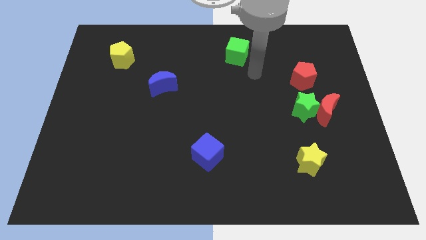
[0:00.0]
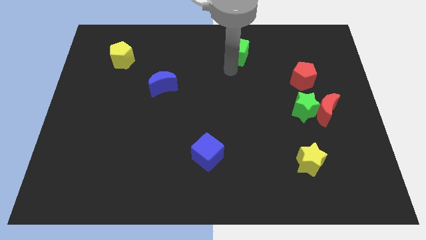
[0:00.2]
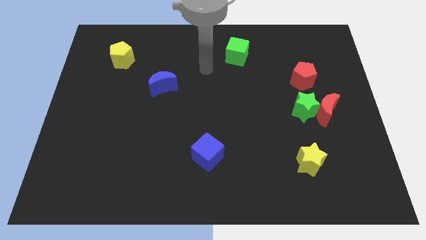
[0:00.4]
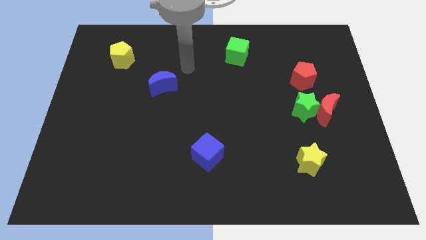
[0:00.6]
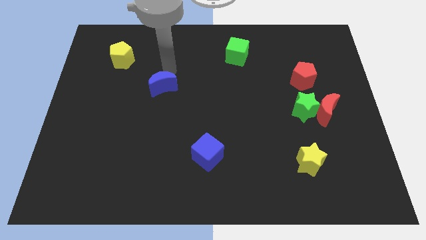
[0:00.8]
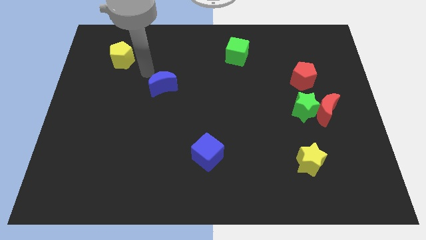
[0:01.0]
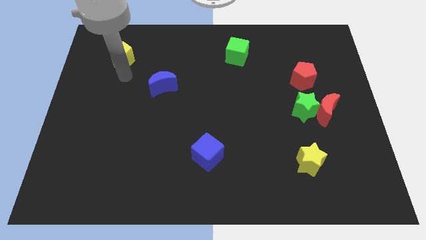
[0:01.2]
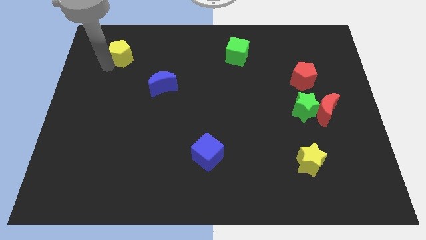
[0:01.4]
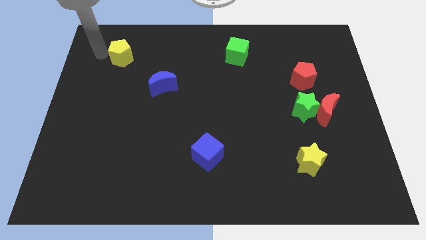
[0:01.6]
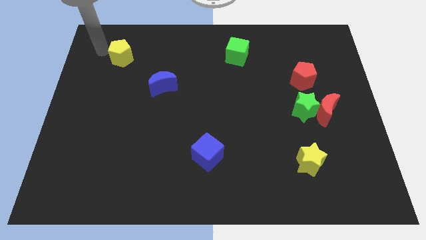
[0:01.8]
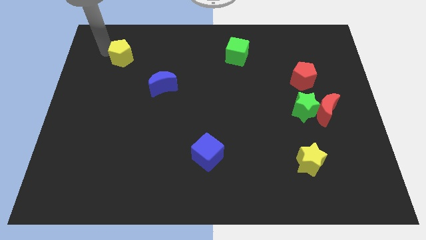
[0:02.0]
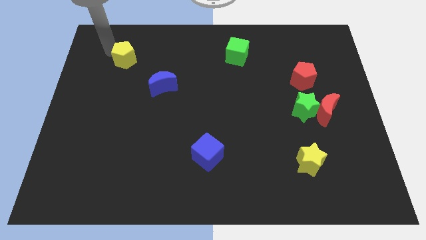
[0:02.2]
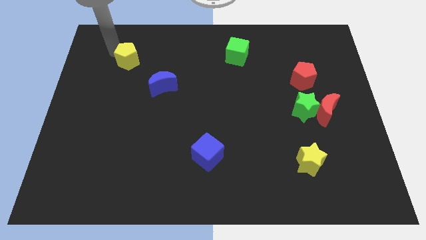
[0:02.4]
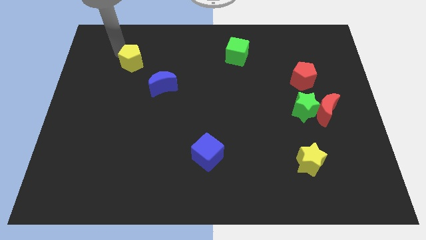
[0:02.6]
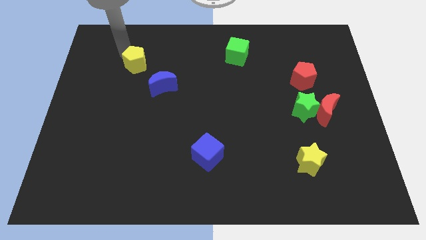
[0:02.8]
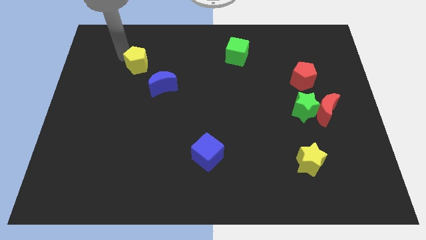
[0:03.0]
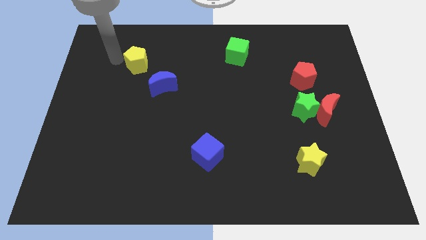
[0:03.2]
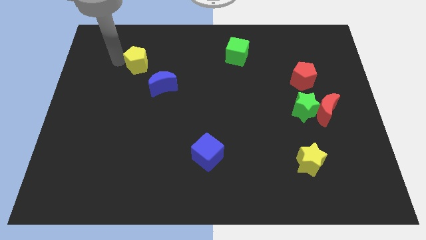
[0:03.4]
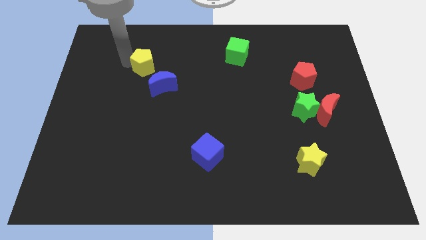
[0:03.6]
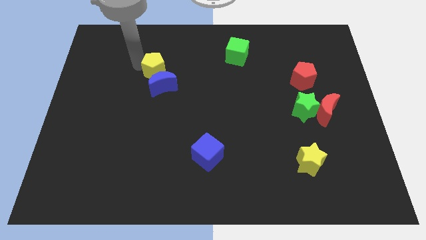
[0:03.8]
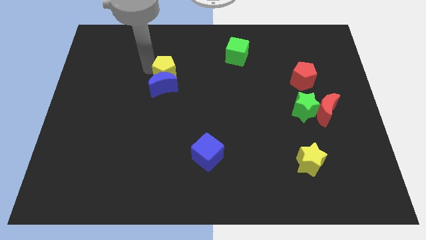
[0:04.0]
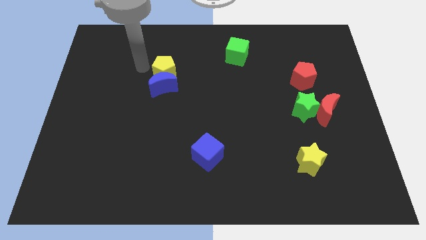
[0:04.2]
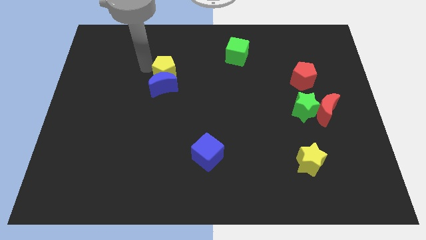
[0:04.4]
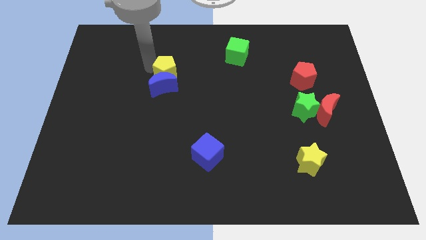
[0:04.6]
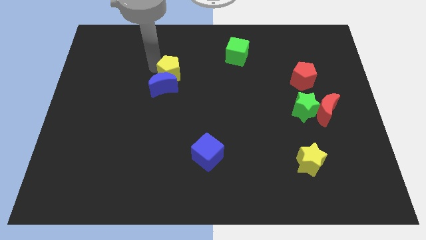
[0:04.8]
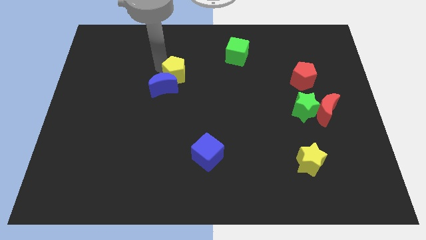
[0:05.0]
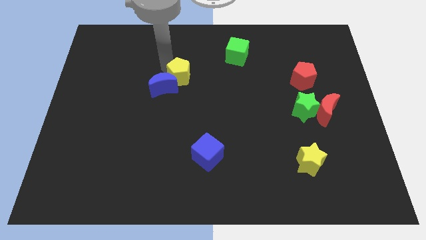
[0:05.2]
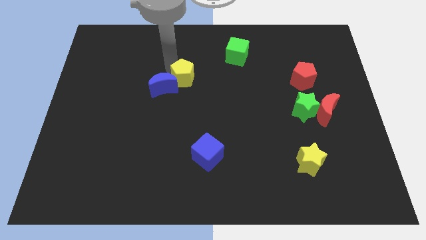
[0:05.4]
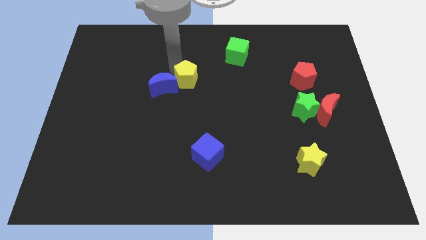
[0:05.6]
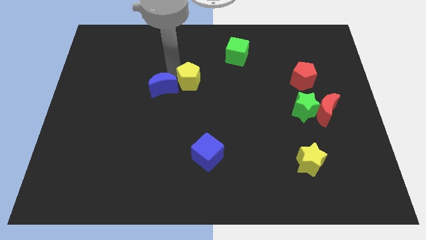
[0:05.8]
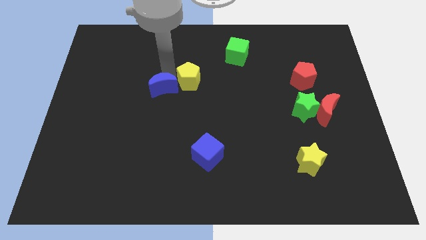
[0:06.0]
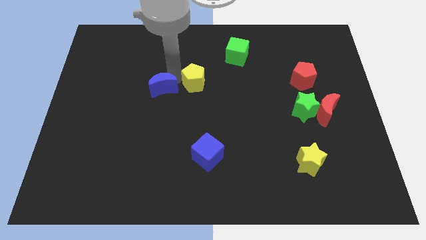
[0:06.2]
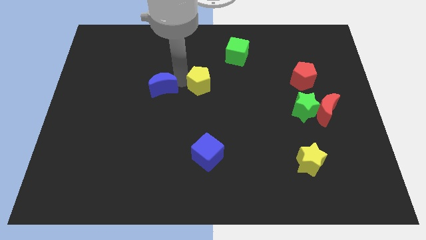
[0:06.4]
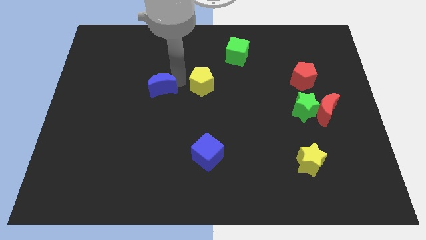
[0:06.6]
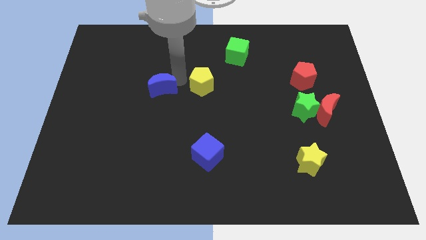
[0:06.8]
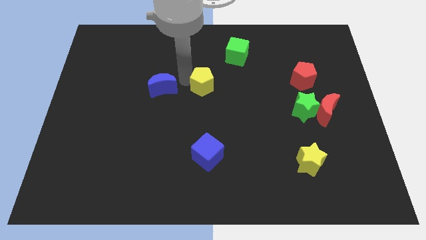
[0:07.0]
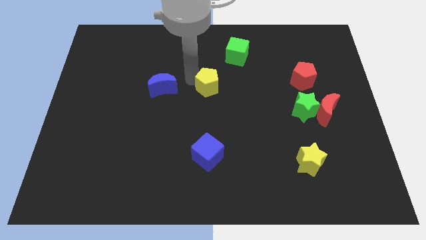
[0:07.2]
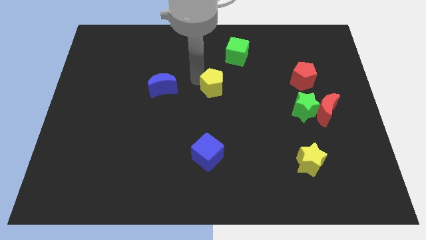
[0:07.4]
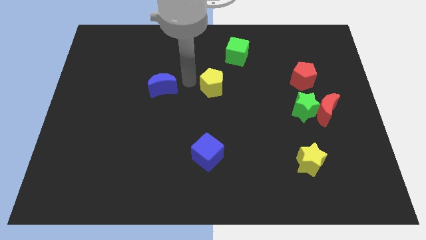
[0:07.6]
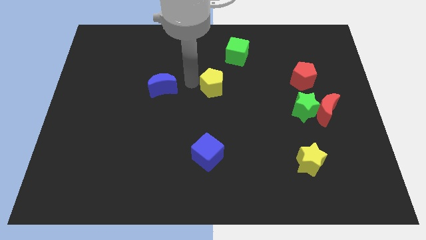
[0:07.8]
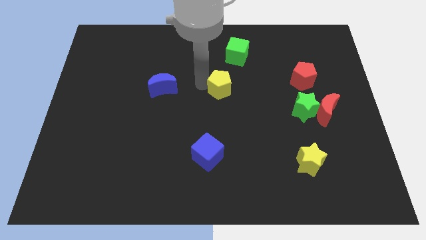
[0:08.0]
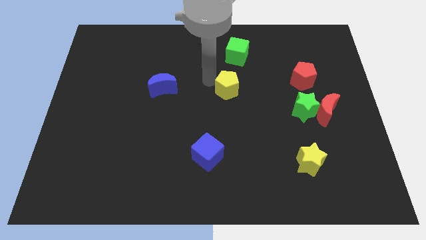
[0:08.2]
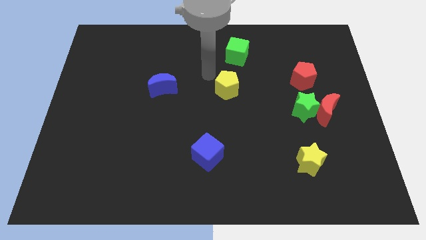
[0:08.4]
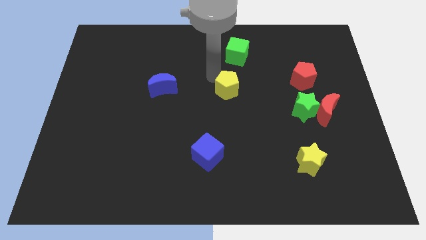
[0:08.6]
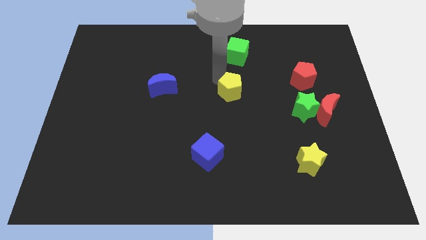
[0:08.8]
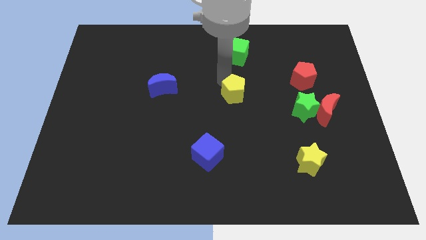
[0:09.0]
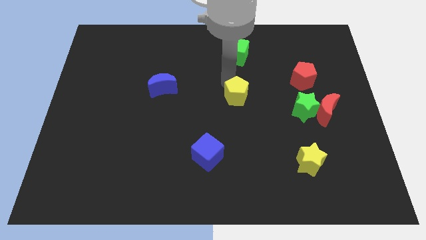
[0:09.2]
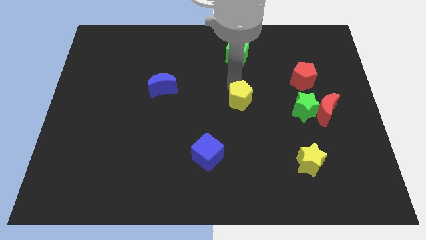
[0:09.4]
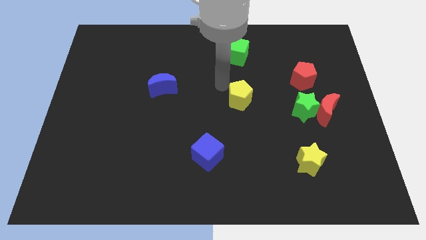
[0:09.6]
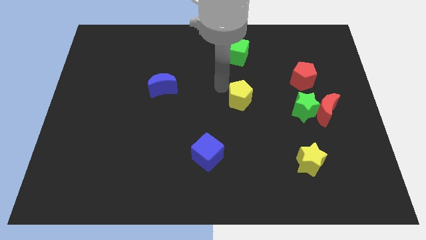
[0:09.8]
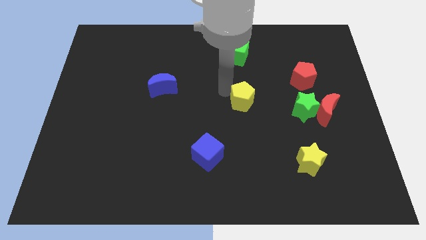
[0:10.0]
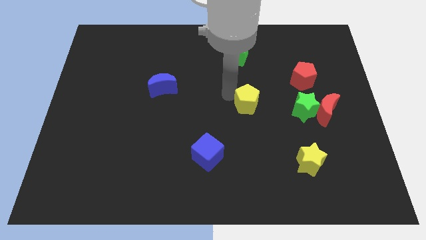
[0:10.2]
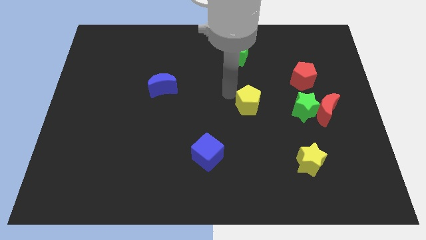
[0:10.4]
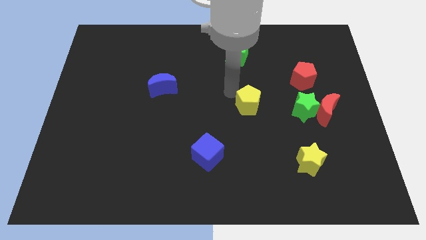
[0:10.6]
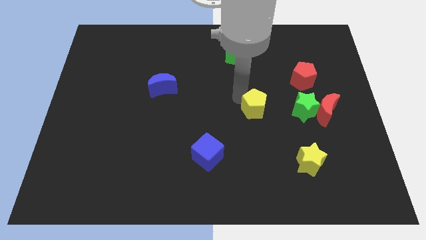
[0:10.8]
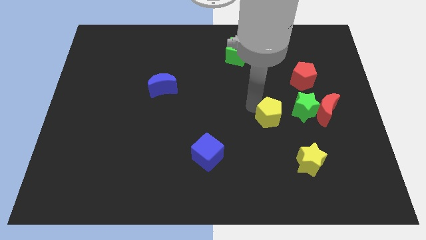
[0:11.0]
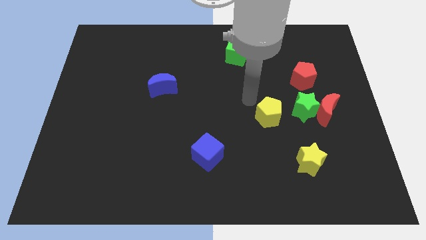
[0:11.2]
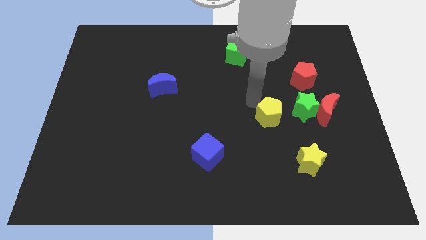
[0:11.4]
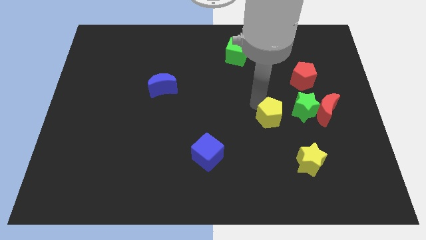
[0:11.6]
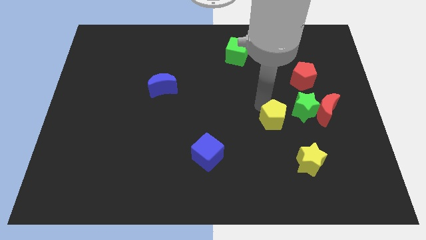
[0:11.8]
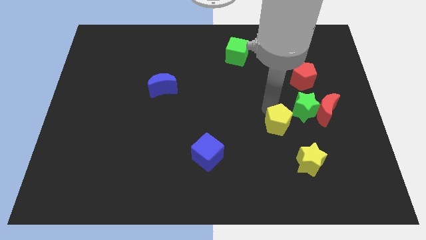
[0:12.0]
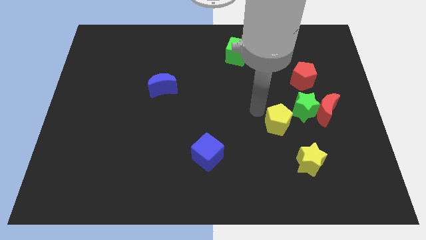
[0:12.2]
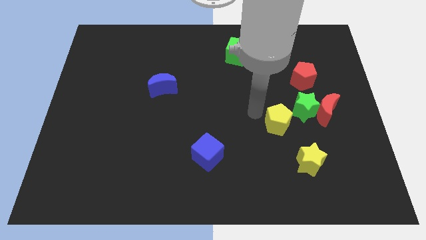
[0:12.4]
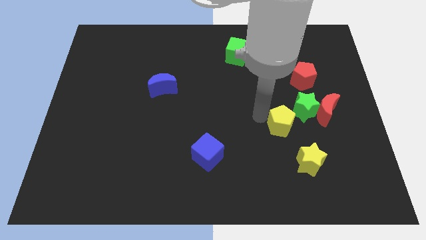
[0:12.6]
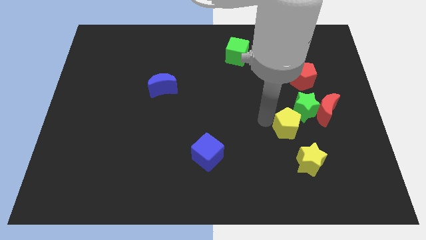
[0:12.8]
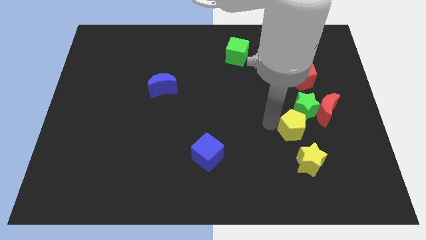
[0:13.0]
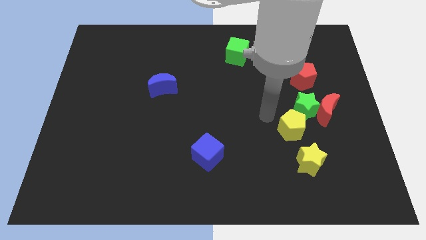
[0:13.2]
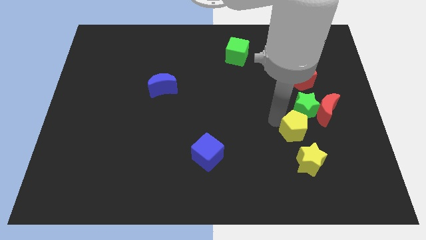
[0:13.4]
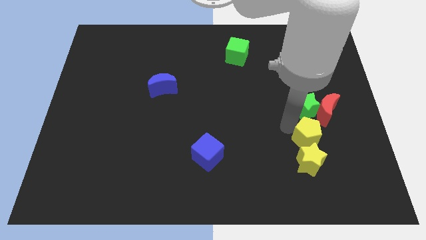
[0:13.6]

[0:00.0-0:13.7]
slide the yellow pentagon diagonally up and to the right of the yellow star
